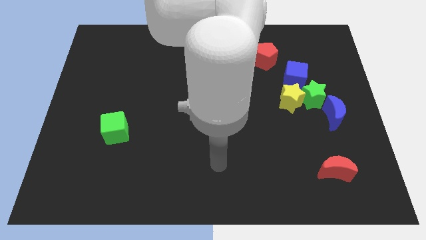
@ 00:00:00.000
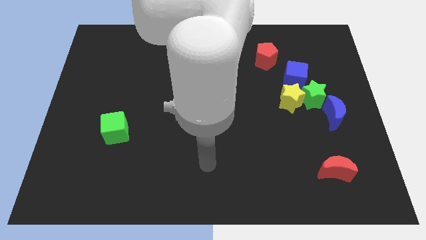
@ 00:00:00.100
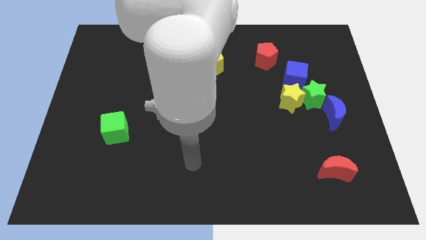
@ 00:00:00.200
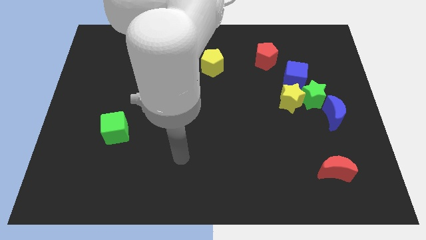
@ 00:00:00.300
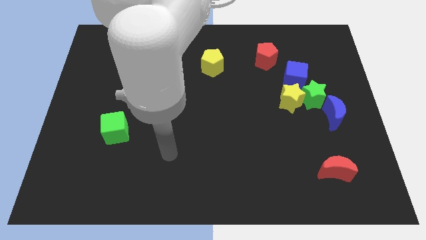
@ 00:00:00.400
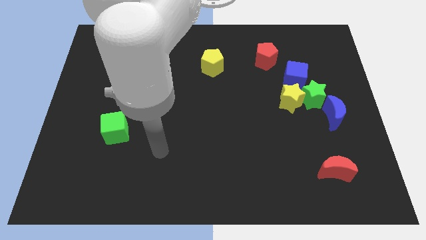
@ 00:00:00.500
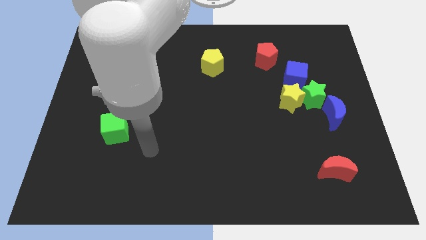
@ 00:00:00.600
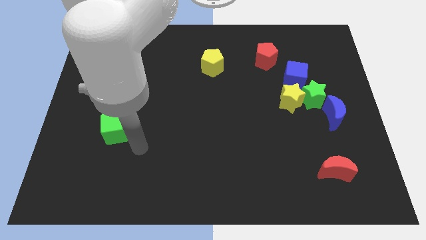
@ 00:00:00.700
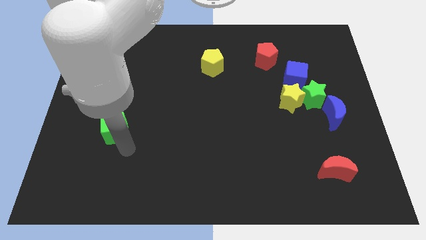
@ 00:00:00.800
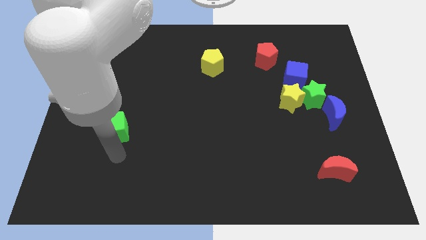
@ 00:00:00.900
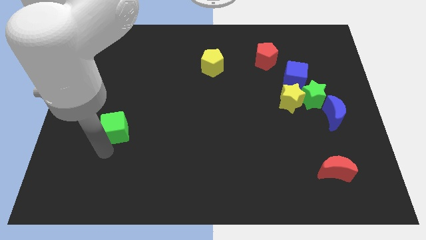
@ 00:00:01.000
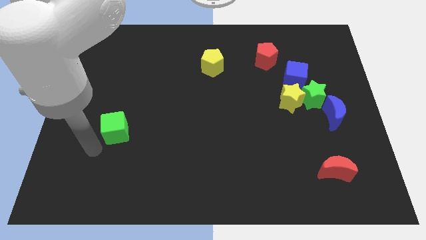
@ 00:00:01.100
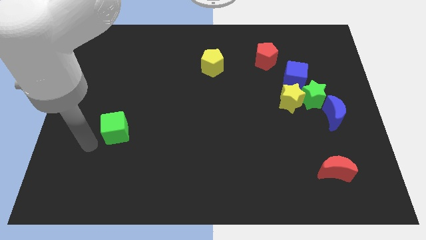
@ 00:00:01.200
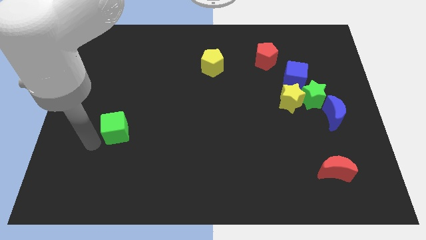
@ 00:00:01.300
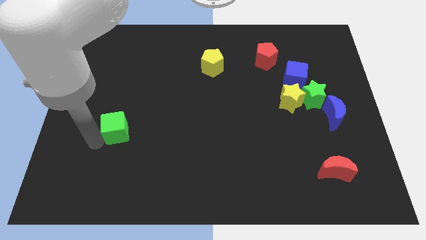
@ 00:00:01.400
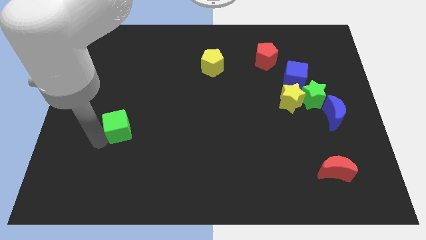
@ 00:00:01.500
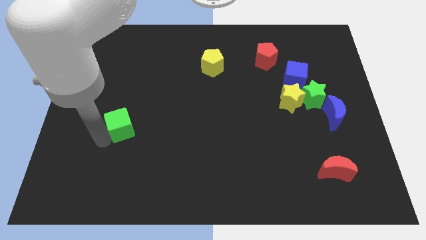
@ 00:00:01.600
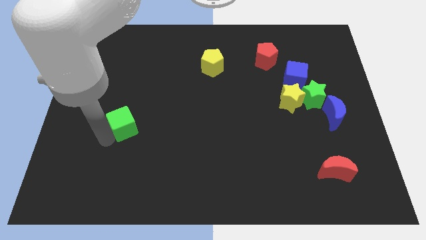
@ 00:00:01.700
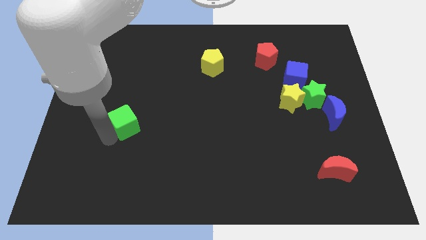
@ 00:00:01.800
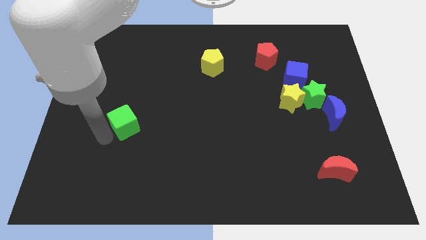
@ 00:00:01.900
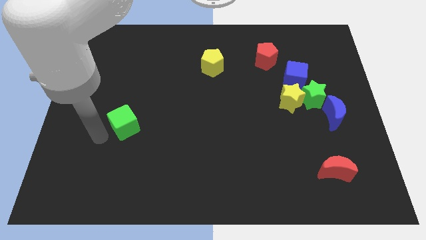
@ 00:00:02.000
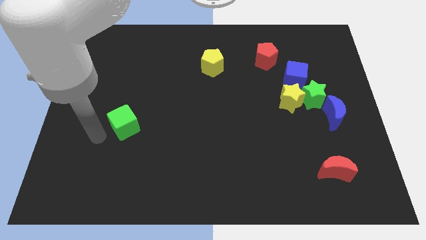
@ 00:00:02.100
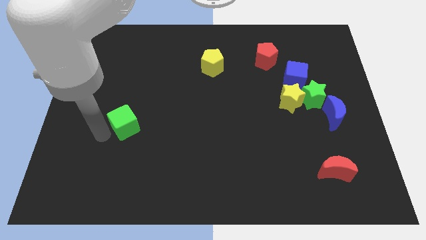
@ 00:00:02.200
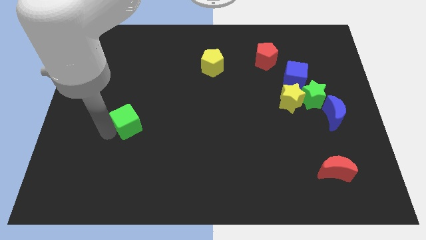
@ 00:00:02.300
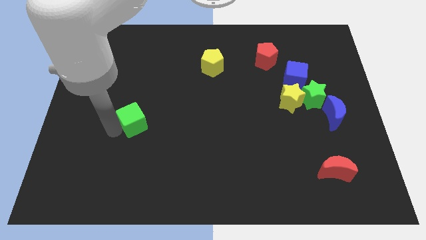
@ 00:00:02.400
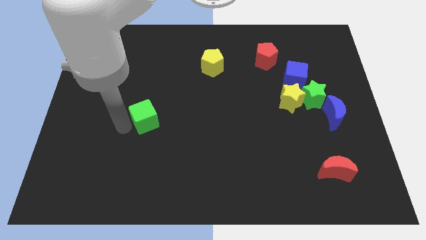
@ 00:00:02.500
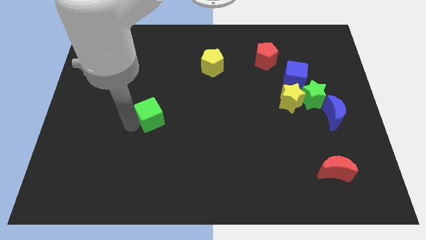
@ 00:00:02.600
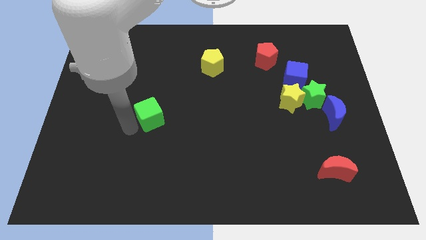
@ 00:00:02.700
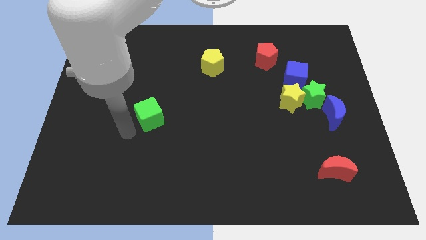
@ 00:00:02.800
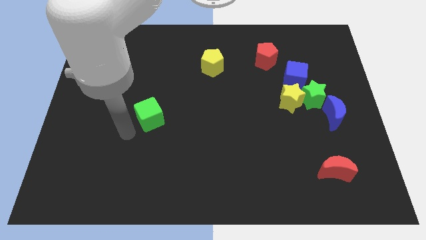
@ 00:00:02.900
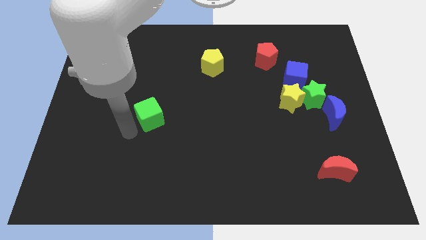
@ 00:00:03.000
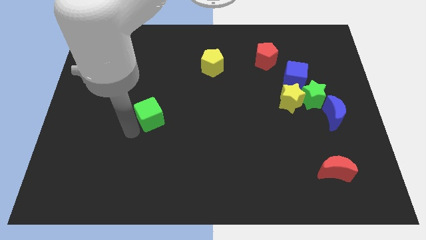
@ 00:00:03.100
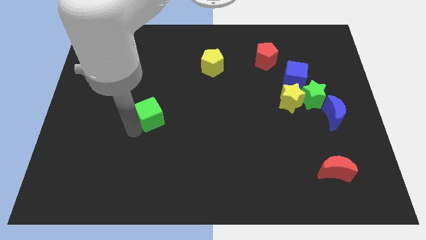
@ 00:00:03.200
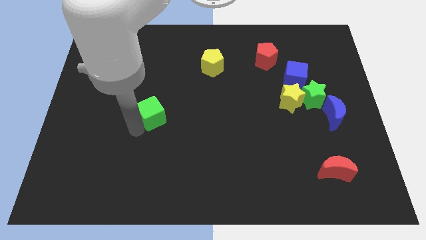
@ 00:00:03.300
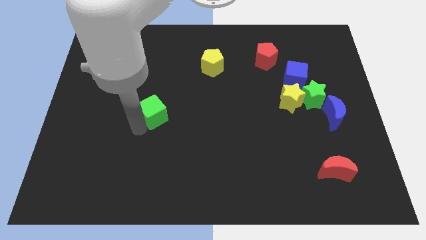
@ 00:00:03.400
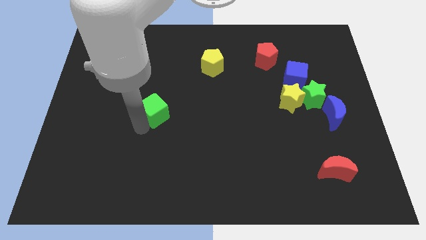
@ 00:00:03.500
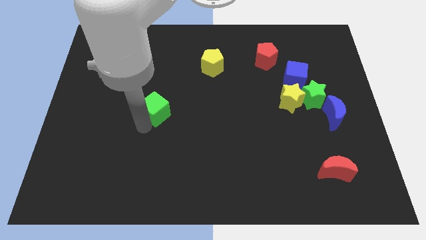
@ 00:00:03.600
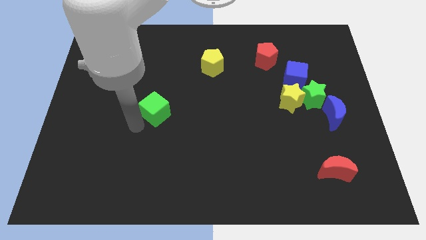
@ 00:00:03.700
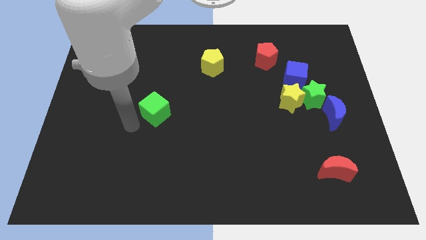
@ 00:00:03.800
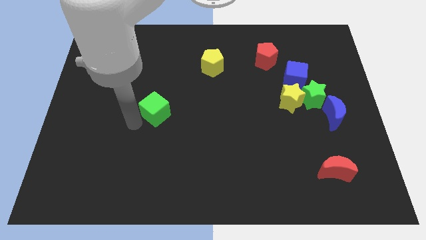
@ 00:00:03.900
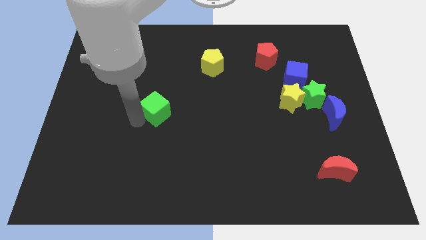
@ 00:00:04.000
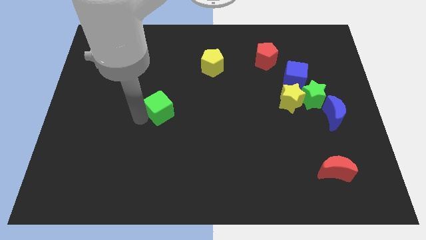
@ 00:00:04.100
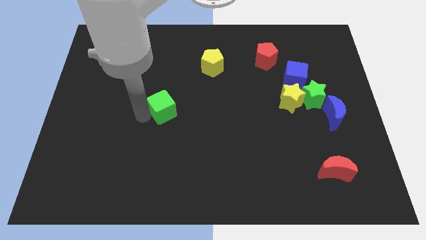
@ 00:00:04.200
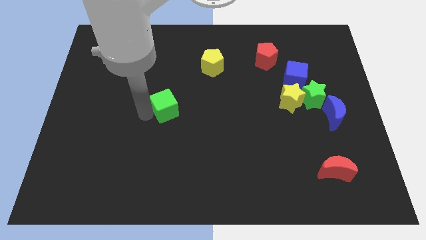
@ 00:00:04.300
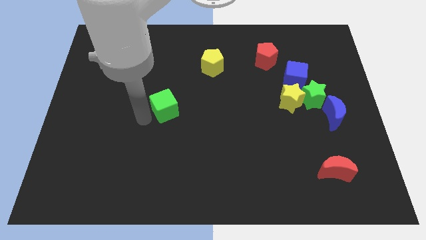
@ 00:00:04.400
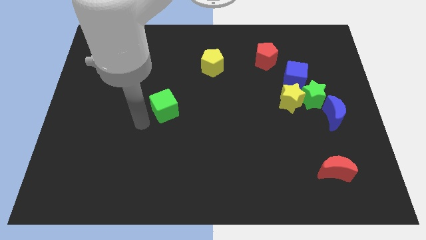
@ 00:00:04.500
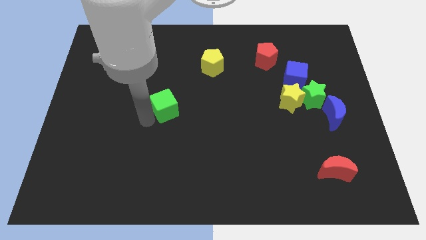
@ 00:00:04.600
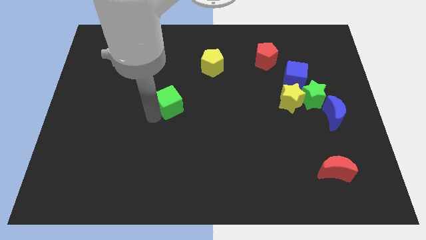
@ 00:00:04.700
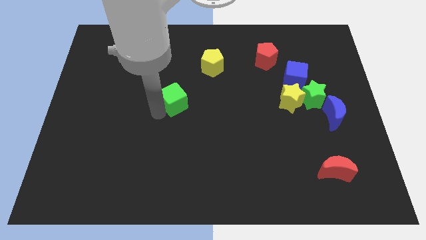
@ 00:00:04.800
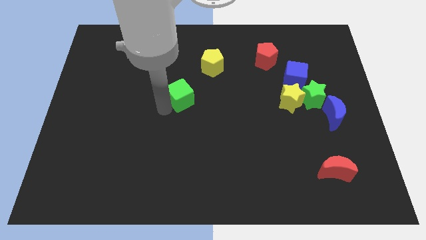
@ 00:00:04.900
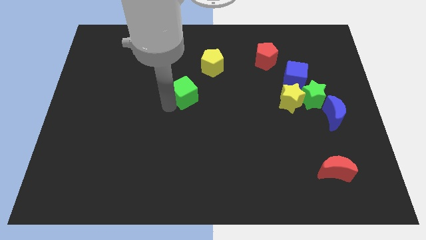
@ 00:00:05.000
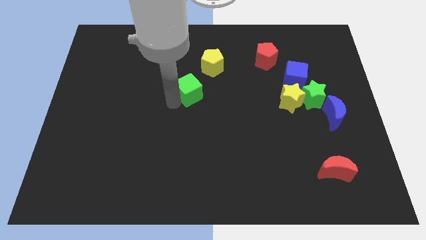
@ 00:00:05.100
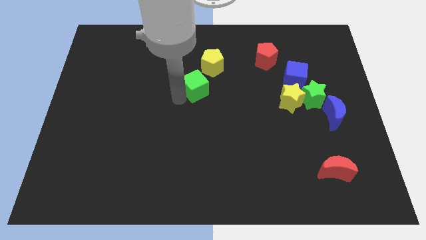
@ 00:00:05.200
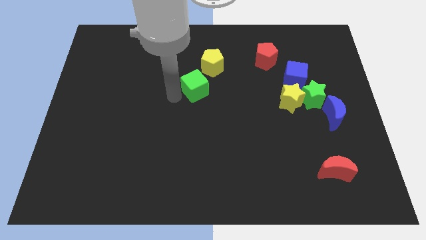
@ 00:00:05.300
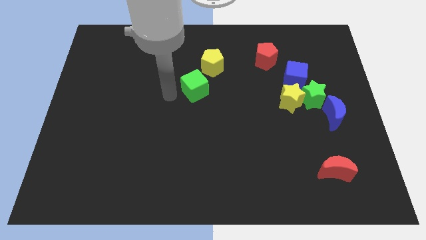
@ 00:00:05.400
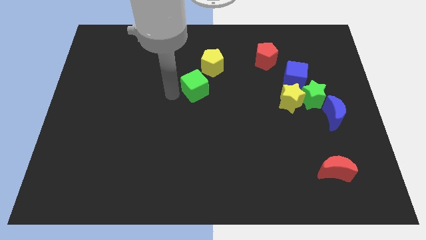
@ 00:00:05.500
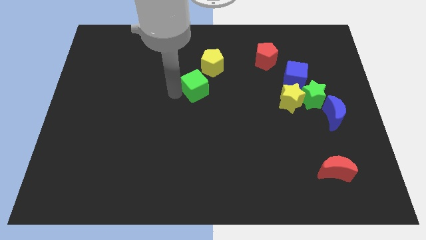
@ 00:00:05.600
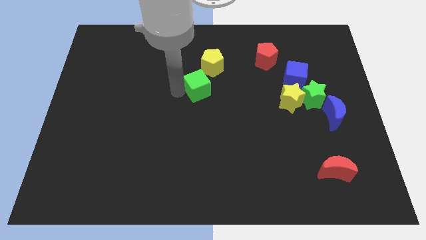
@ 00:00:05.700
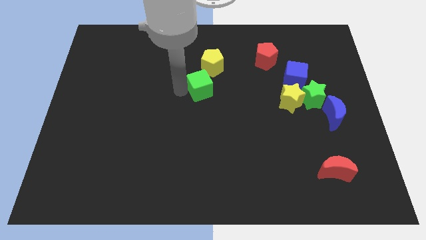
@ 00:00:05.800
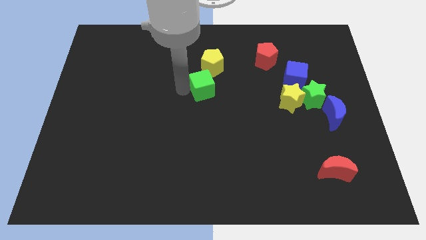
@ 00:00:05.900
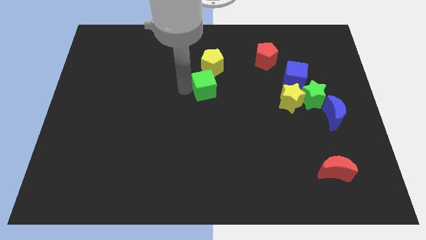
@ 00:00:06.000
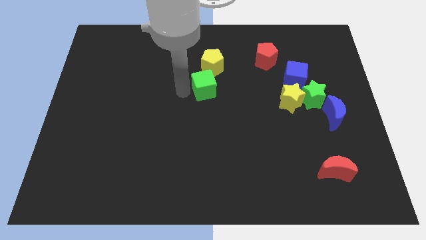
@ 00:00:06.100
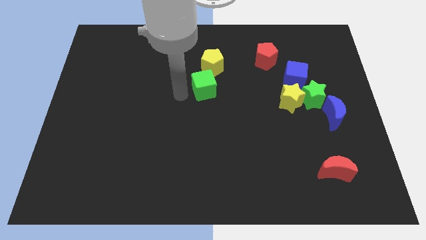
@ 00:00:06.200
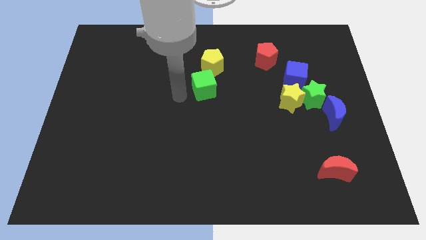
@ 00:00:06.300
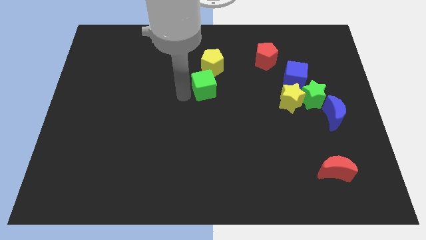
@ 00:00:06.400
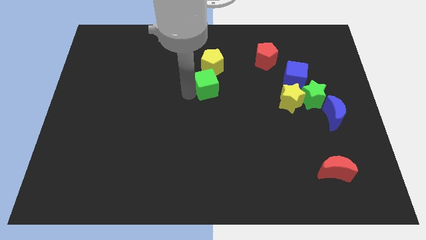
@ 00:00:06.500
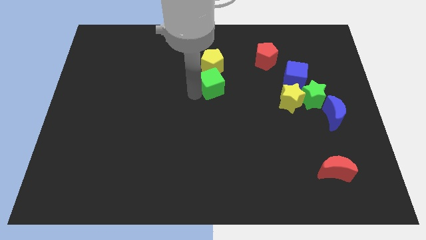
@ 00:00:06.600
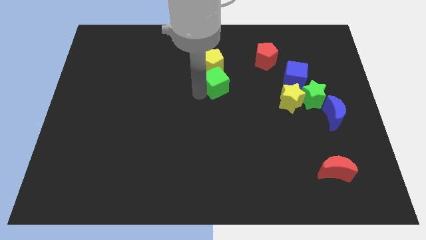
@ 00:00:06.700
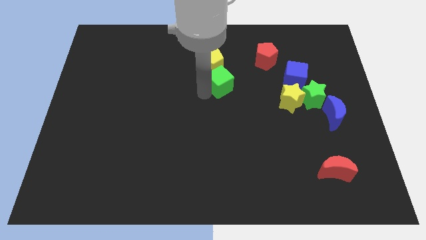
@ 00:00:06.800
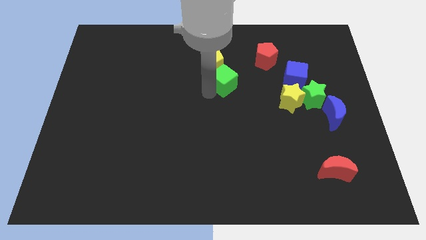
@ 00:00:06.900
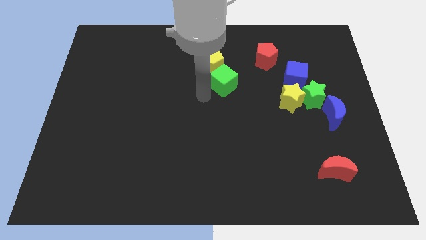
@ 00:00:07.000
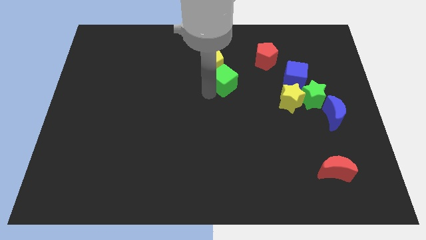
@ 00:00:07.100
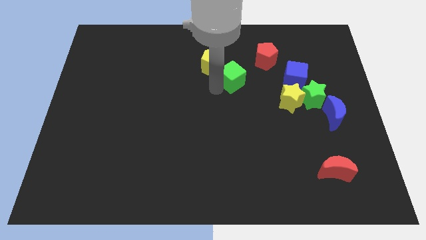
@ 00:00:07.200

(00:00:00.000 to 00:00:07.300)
put the green cube right of the yellow pentagon
